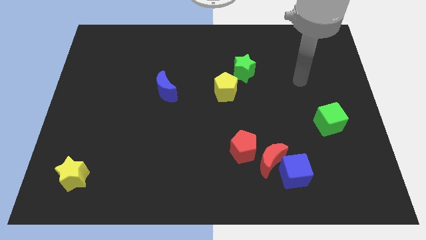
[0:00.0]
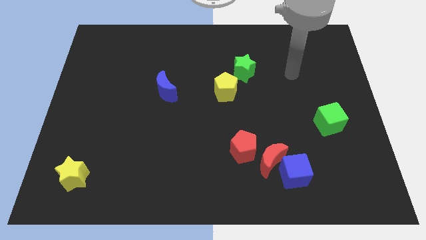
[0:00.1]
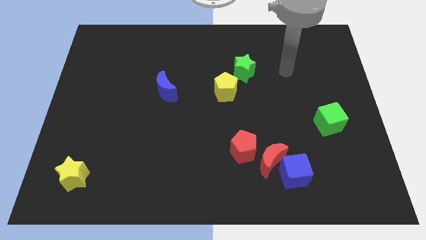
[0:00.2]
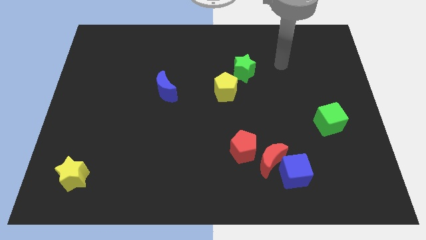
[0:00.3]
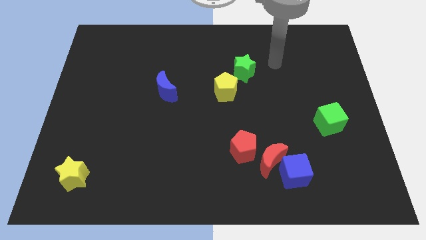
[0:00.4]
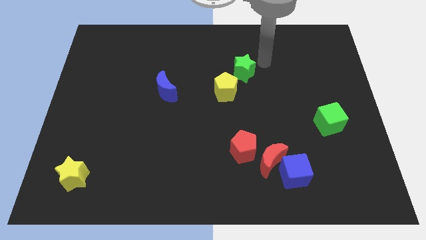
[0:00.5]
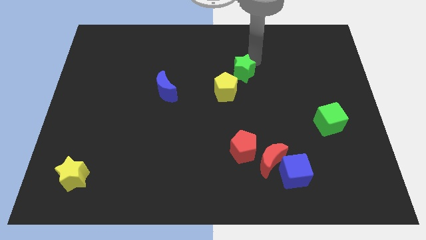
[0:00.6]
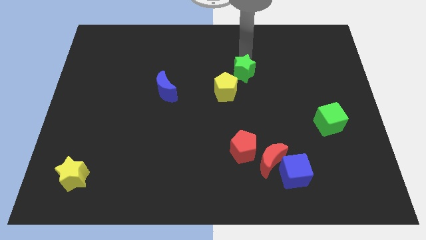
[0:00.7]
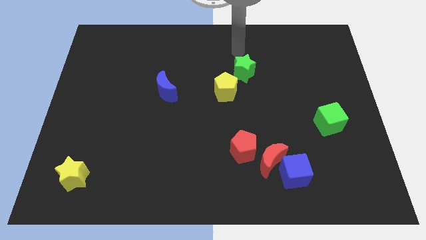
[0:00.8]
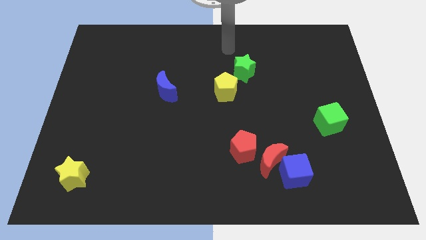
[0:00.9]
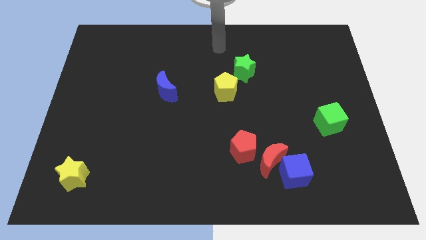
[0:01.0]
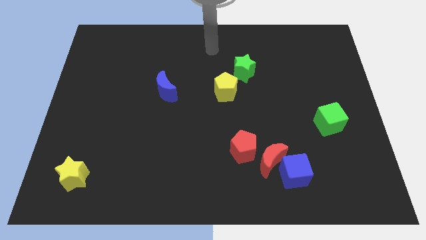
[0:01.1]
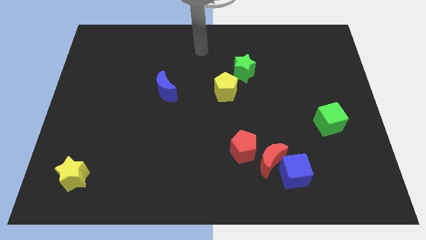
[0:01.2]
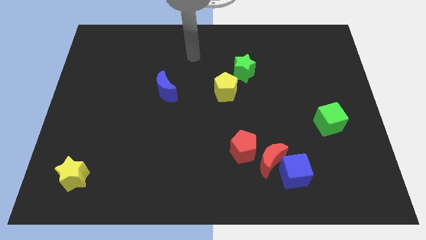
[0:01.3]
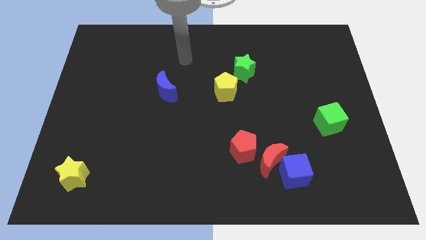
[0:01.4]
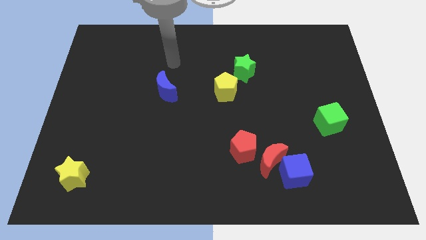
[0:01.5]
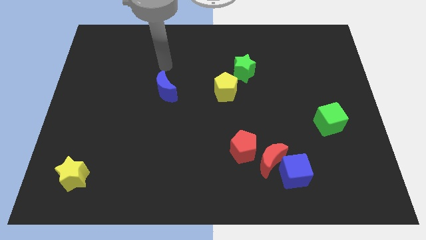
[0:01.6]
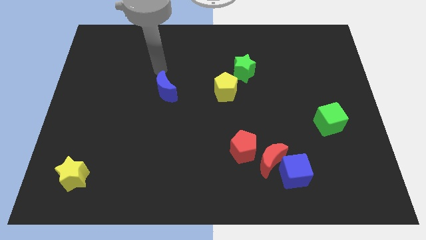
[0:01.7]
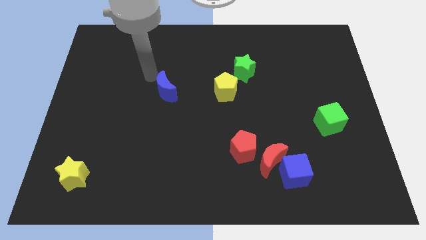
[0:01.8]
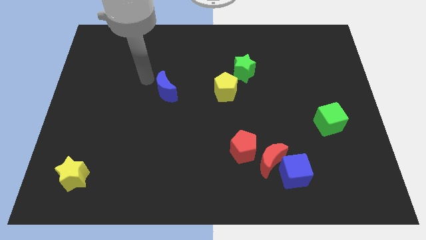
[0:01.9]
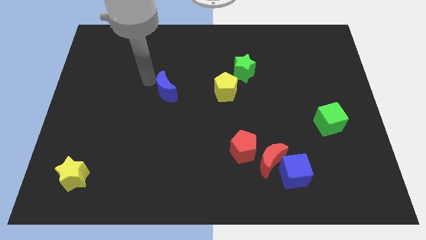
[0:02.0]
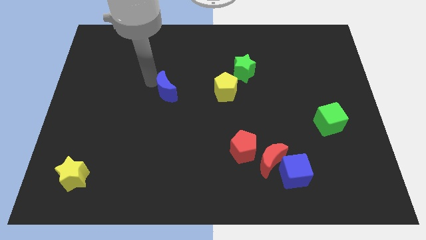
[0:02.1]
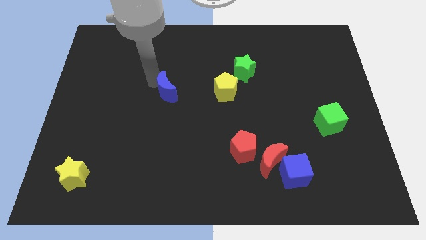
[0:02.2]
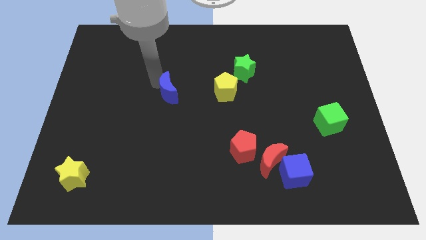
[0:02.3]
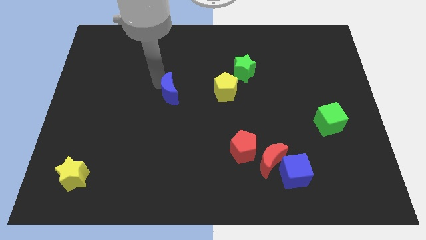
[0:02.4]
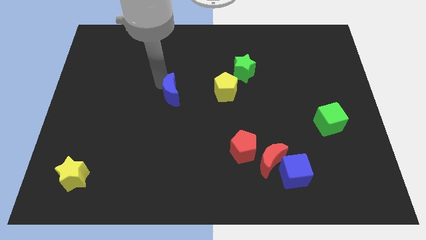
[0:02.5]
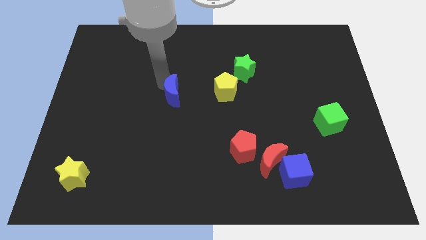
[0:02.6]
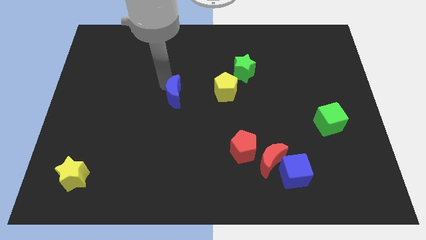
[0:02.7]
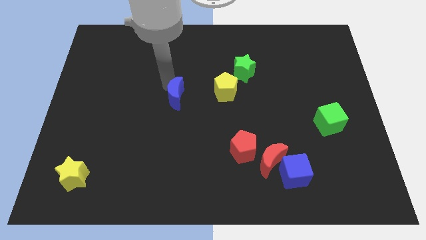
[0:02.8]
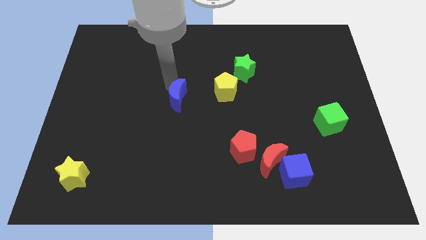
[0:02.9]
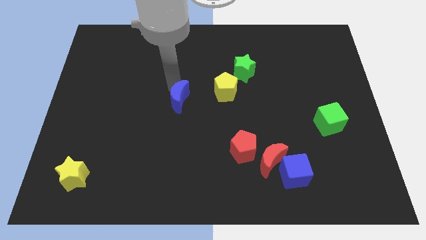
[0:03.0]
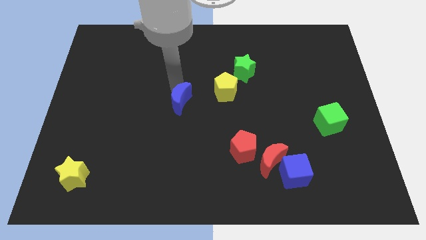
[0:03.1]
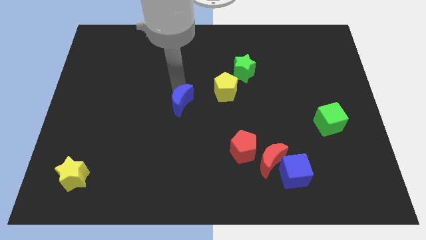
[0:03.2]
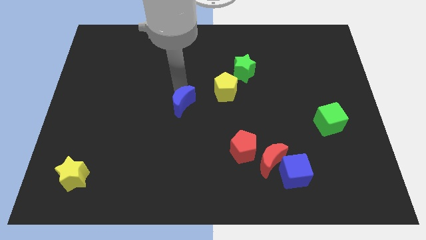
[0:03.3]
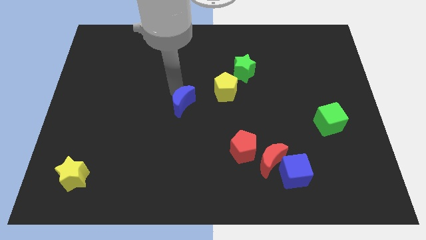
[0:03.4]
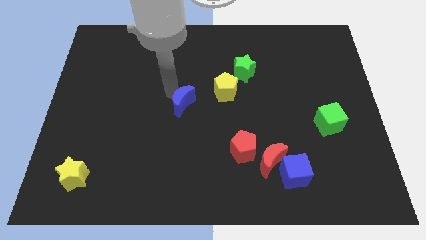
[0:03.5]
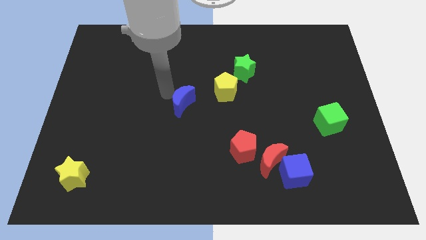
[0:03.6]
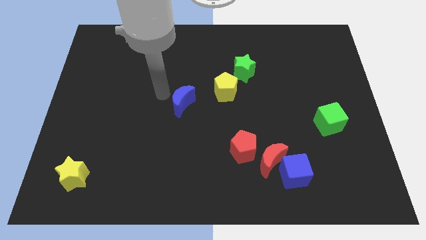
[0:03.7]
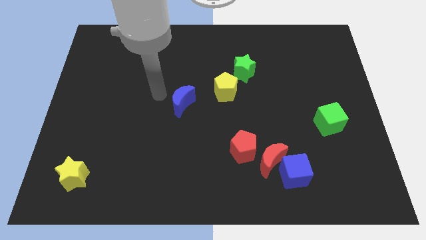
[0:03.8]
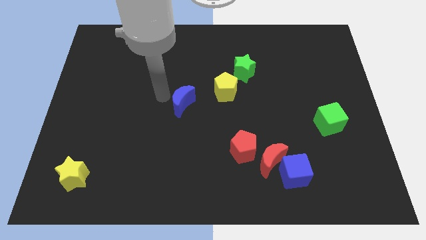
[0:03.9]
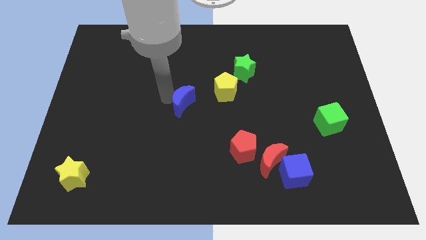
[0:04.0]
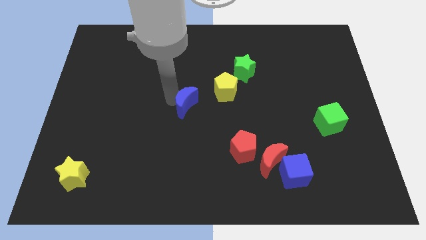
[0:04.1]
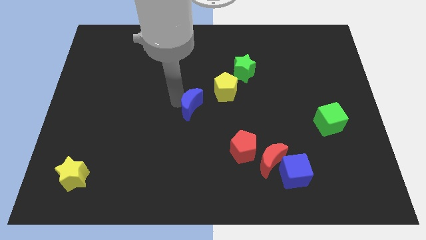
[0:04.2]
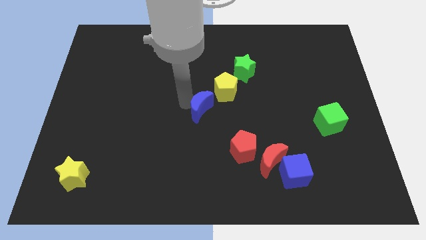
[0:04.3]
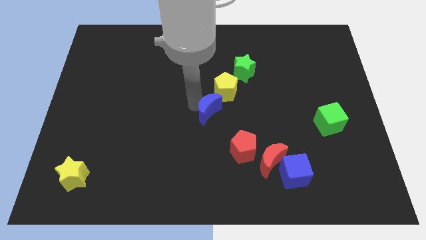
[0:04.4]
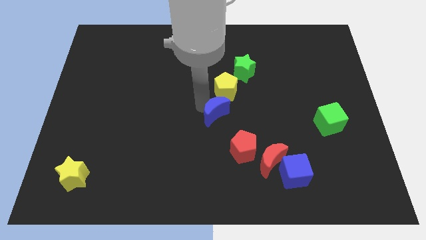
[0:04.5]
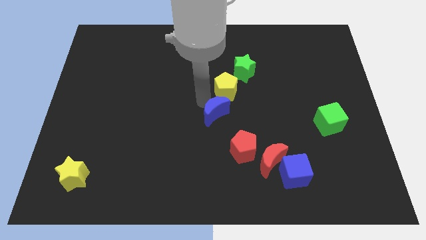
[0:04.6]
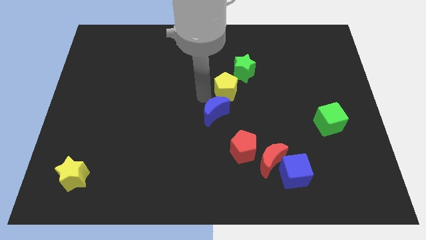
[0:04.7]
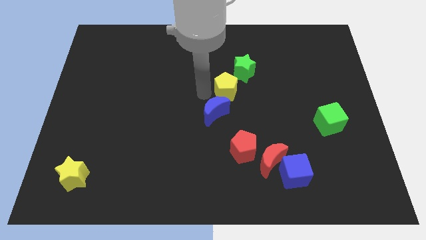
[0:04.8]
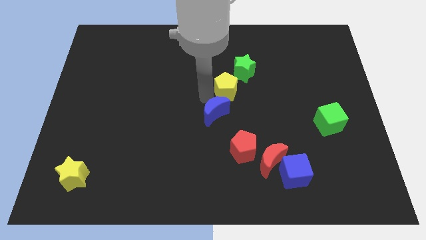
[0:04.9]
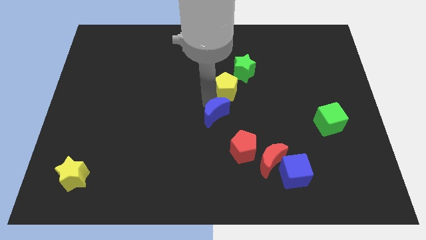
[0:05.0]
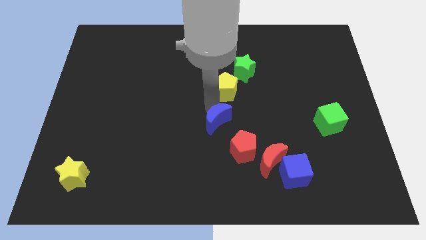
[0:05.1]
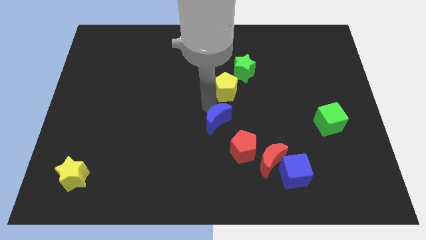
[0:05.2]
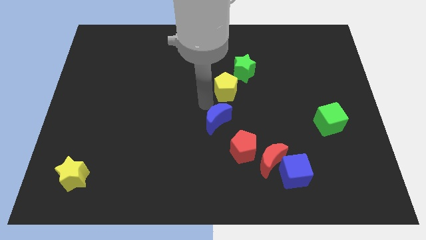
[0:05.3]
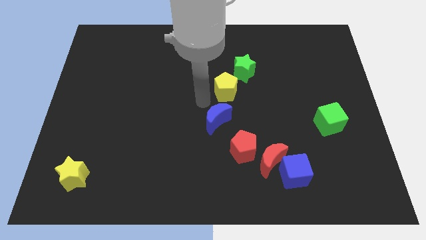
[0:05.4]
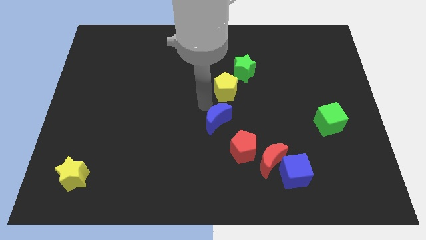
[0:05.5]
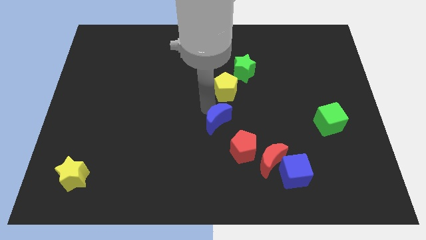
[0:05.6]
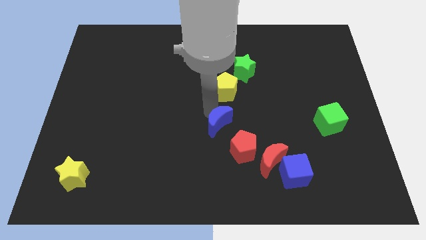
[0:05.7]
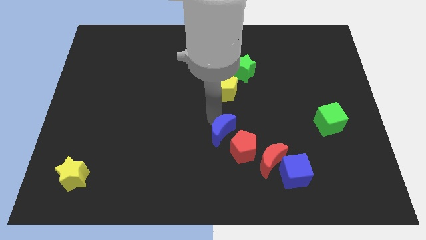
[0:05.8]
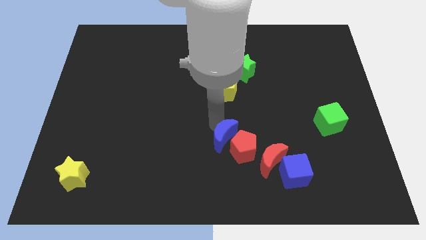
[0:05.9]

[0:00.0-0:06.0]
move the blue moon towards the red pentagon

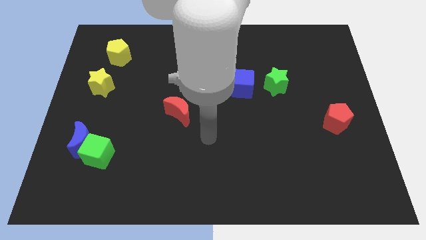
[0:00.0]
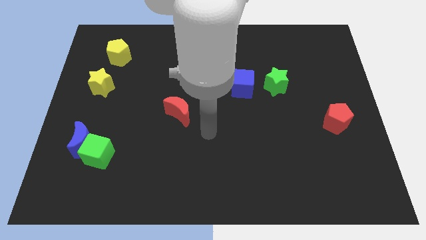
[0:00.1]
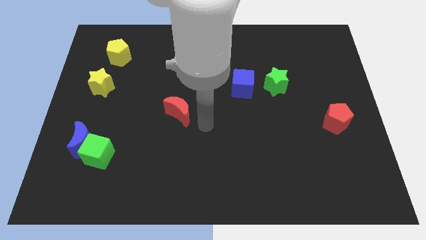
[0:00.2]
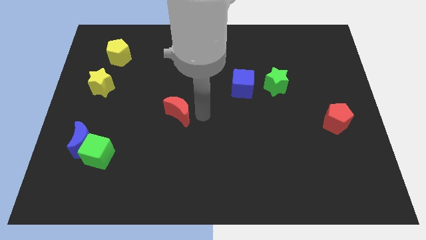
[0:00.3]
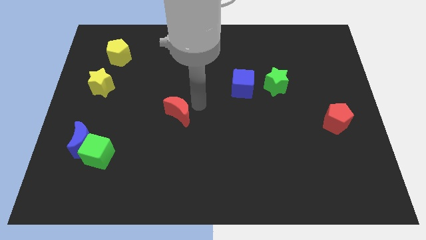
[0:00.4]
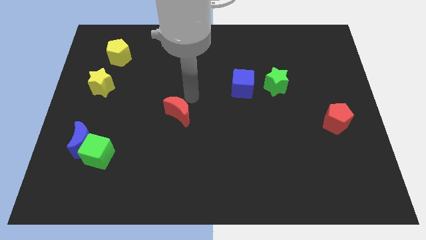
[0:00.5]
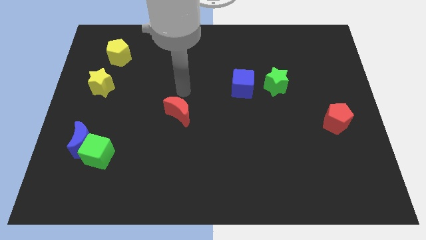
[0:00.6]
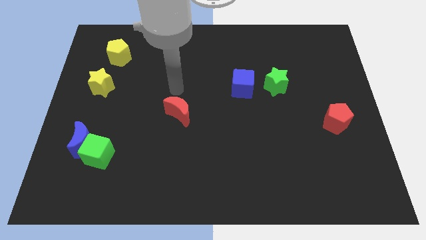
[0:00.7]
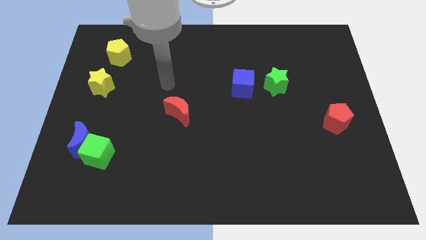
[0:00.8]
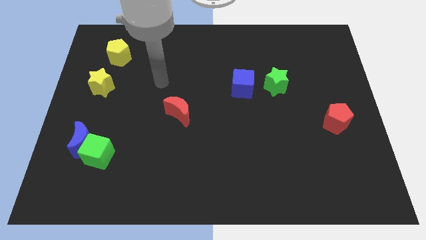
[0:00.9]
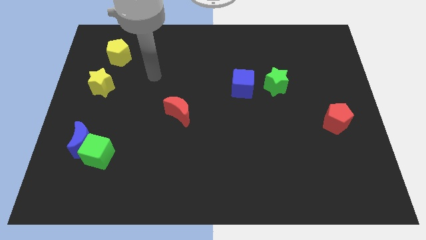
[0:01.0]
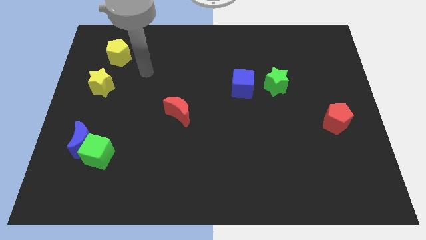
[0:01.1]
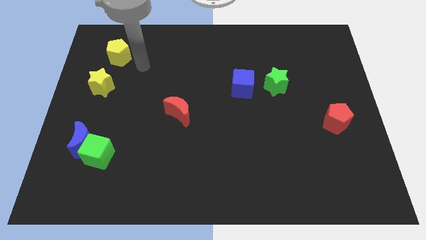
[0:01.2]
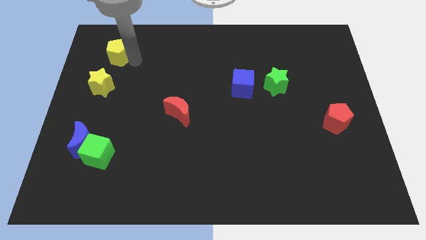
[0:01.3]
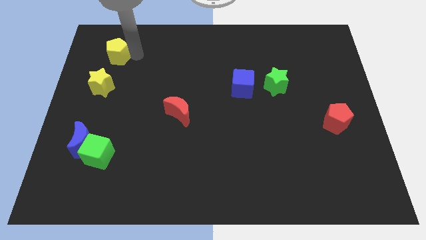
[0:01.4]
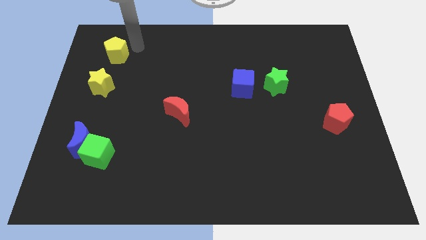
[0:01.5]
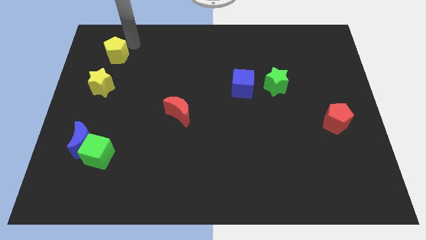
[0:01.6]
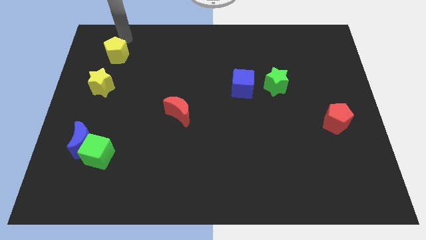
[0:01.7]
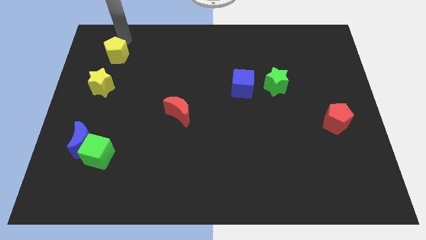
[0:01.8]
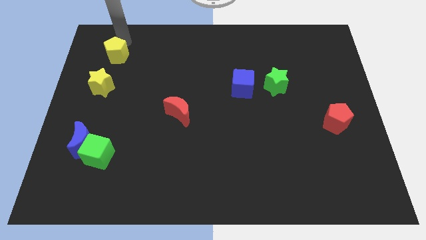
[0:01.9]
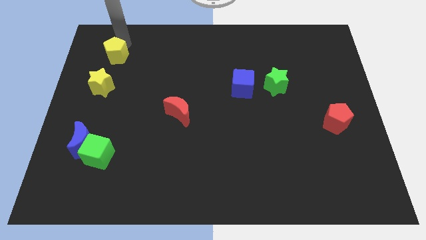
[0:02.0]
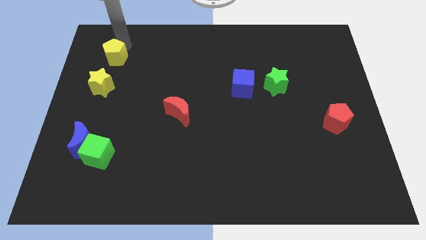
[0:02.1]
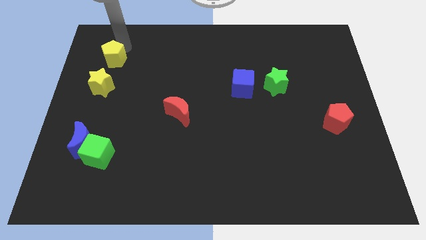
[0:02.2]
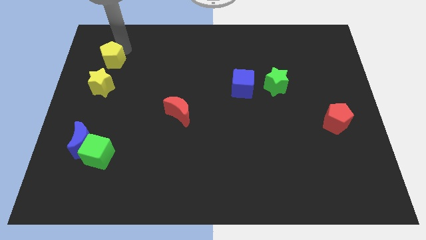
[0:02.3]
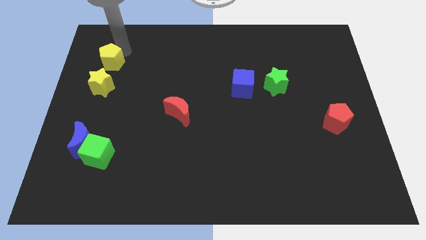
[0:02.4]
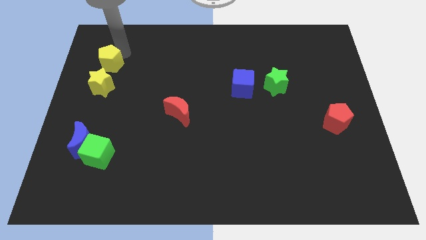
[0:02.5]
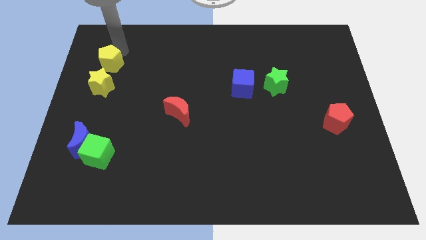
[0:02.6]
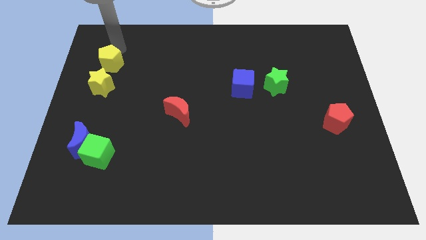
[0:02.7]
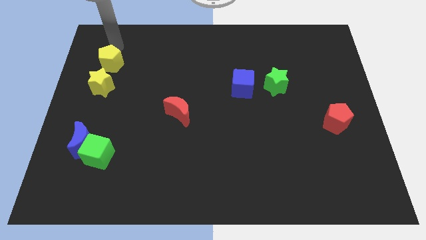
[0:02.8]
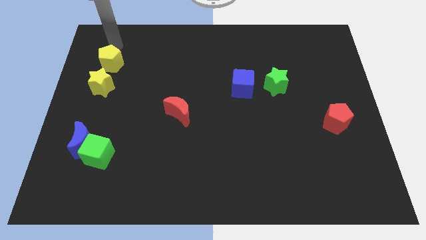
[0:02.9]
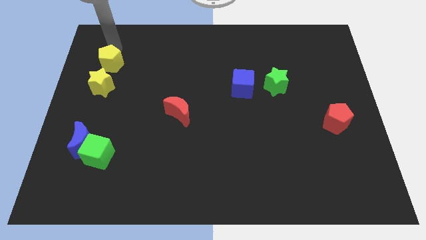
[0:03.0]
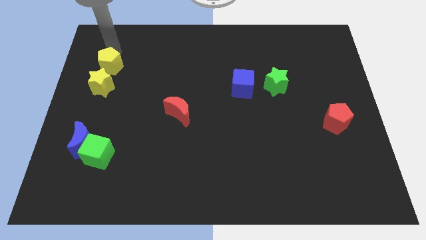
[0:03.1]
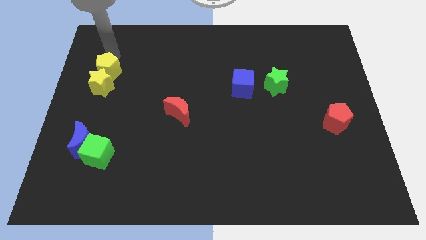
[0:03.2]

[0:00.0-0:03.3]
slide the yellow pentagon towards the yellow star
